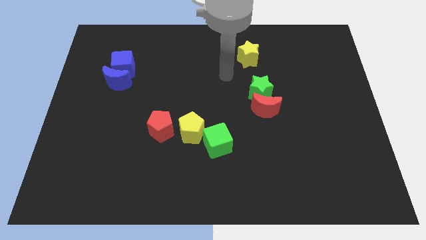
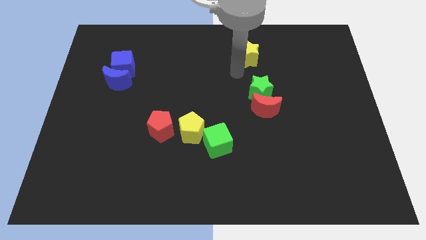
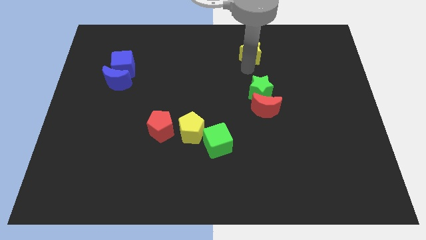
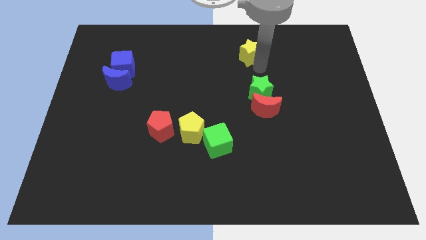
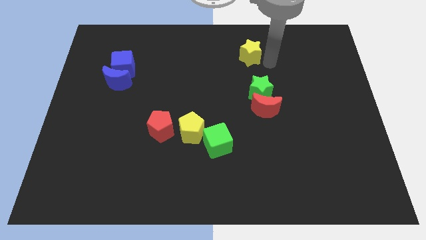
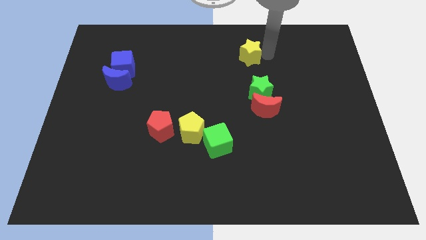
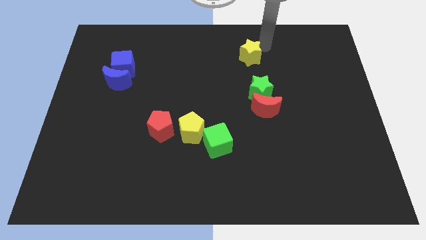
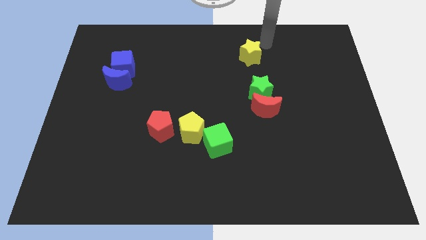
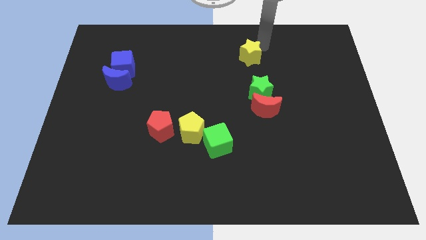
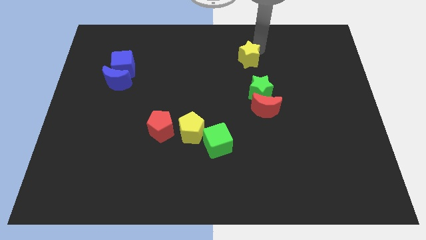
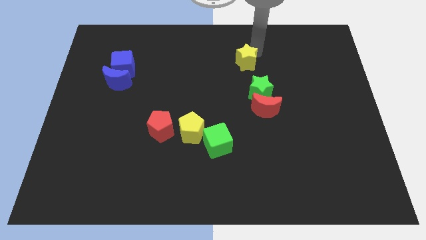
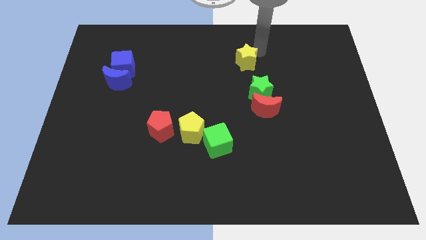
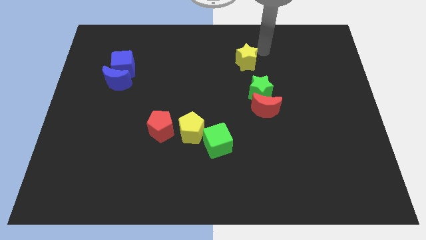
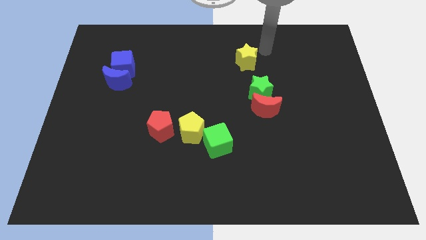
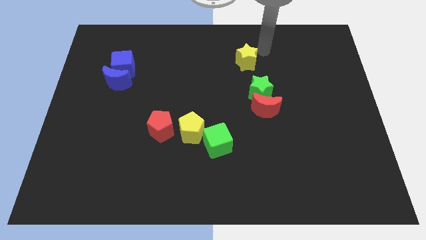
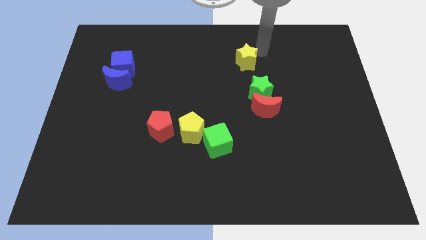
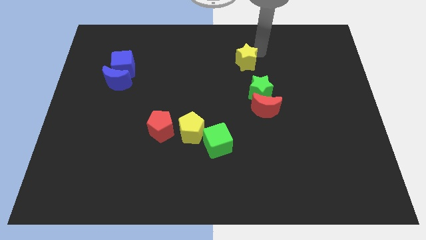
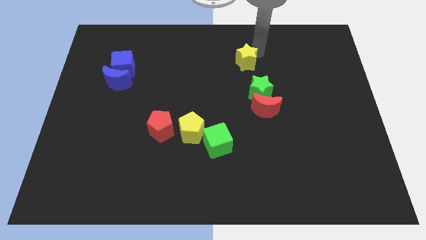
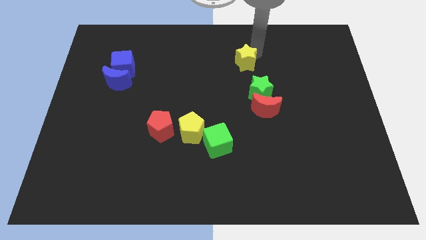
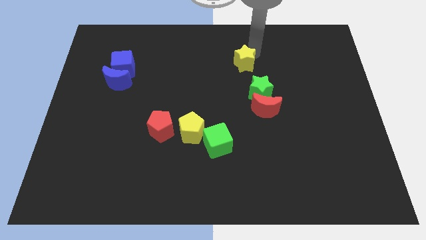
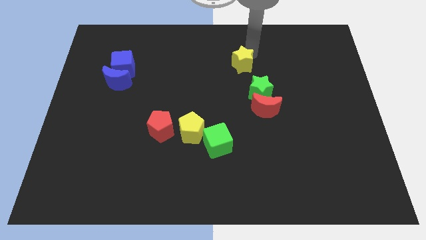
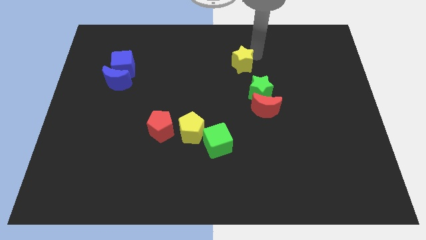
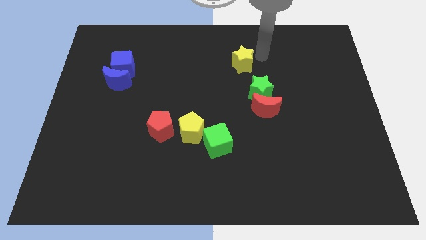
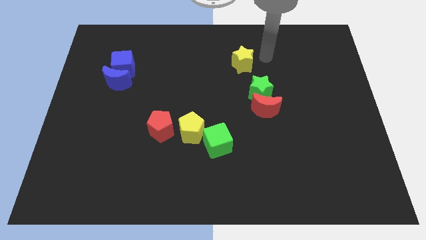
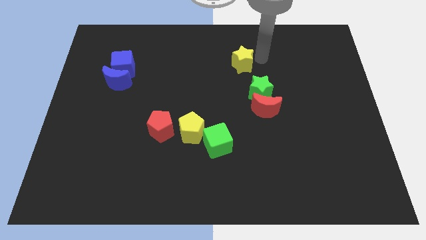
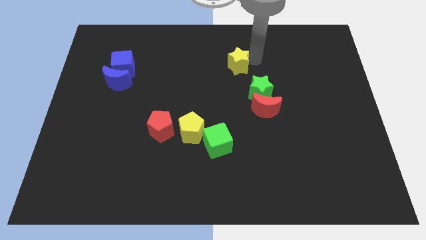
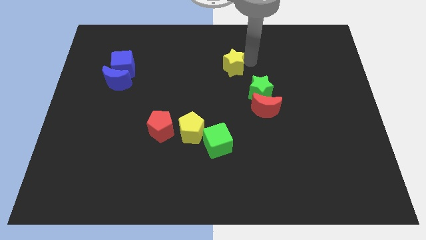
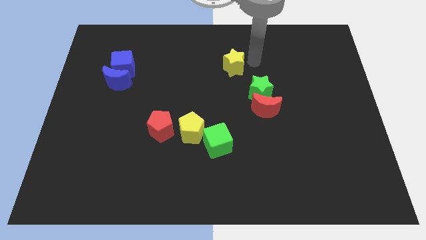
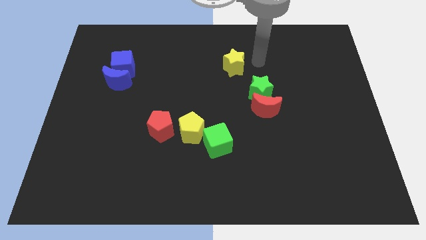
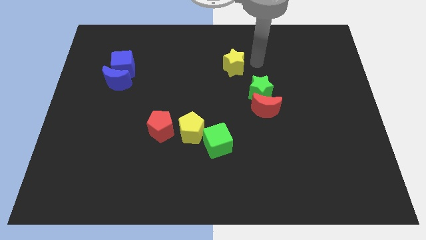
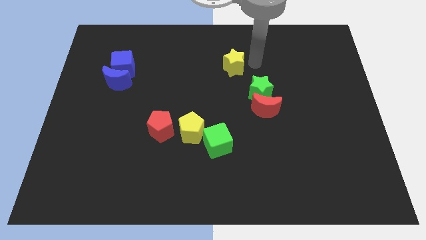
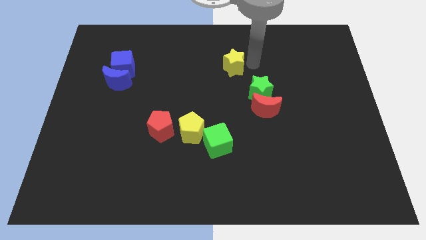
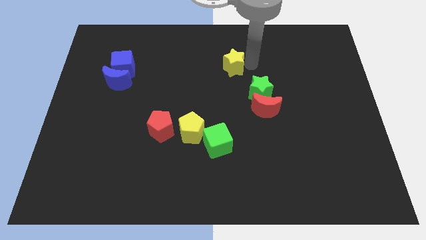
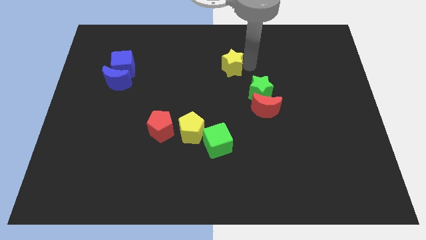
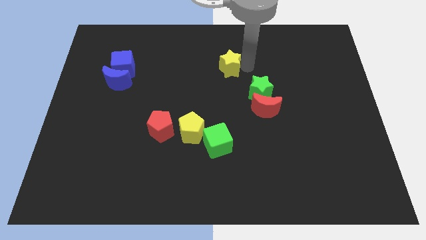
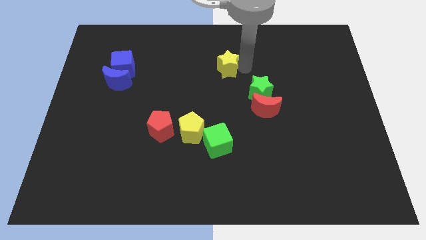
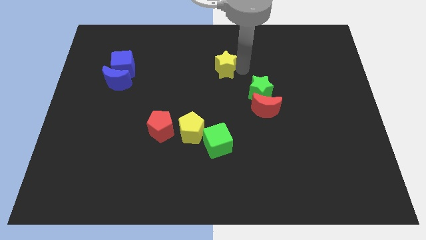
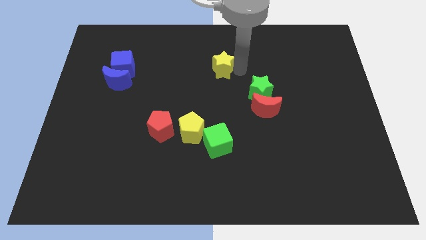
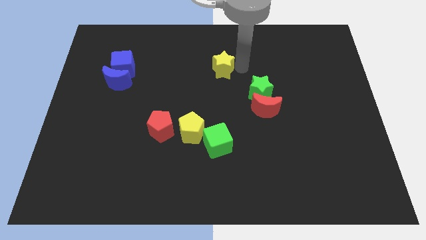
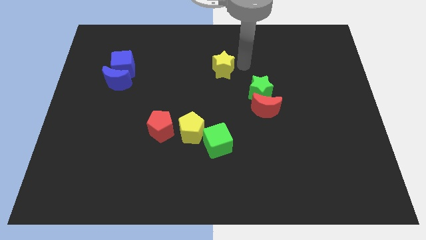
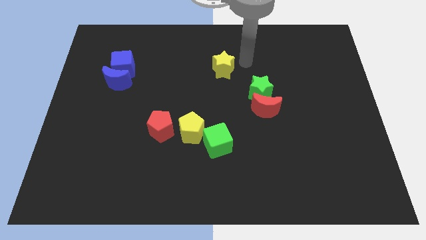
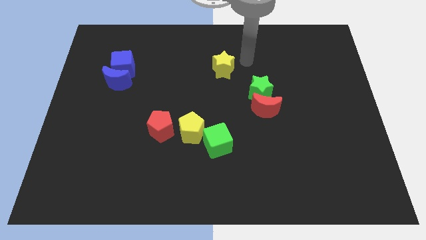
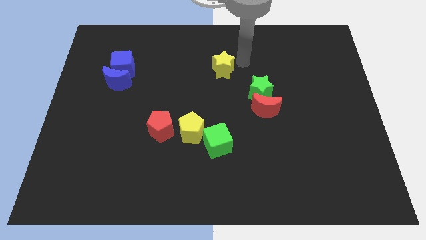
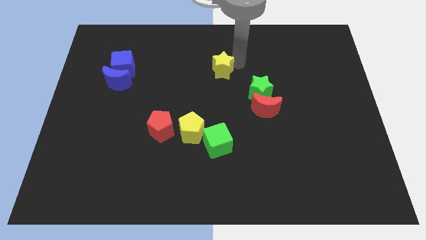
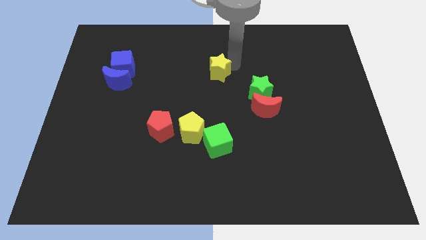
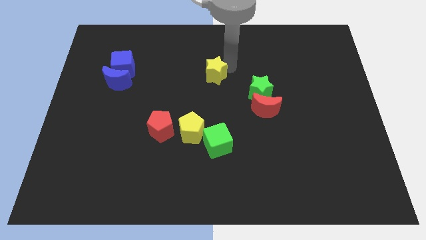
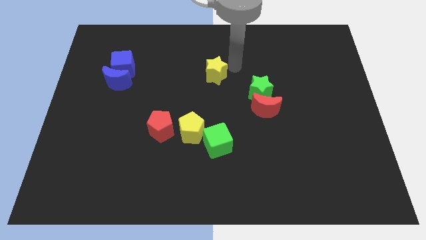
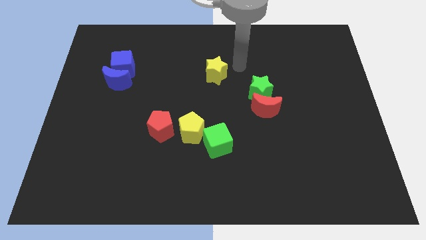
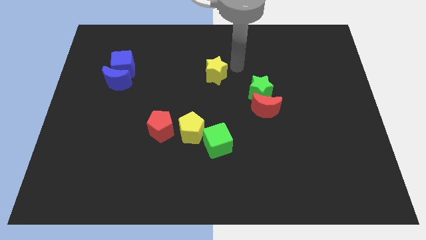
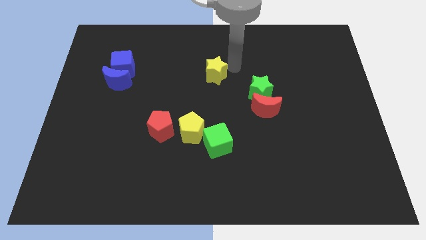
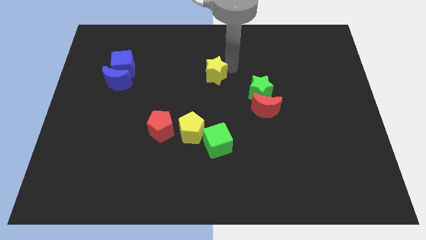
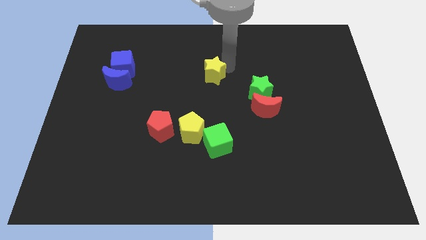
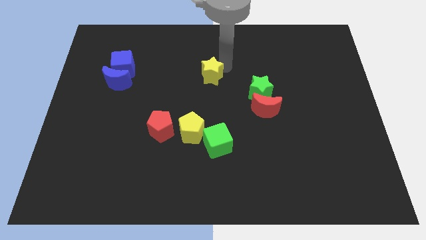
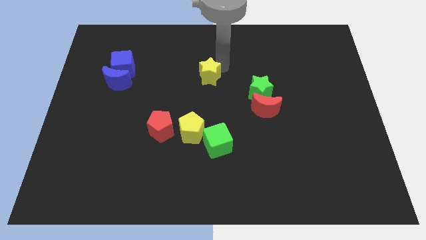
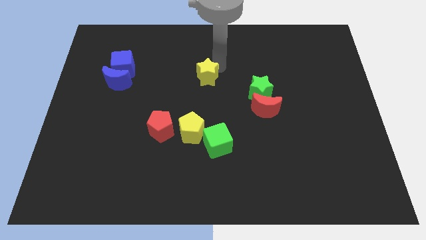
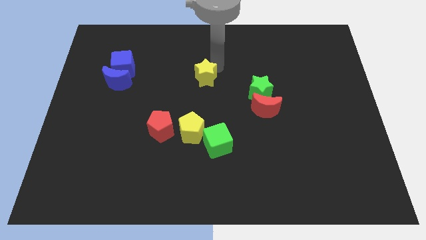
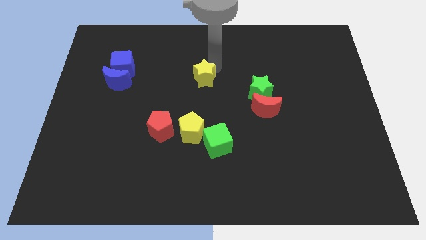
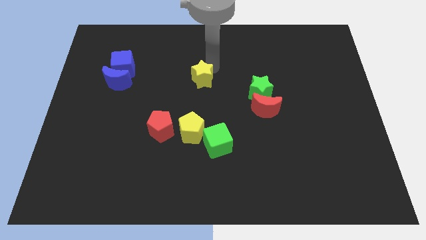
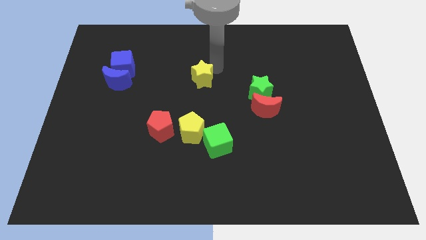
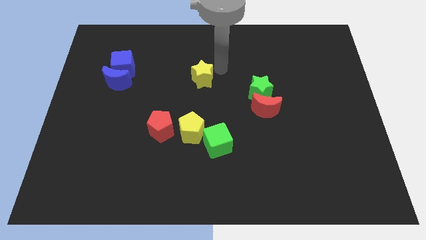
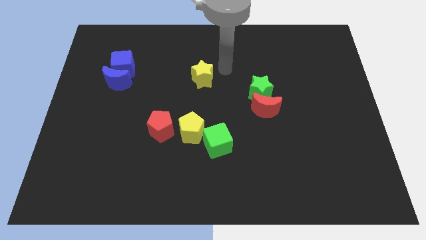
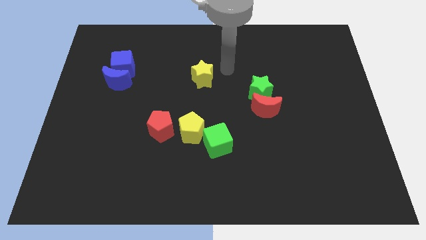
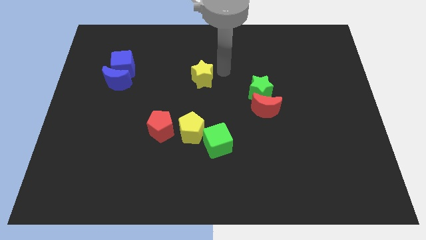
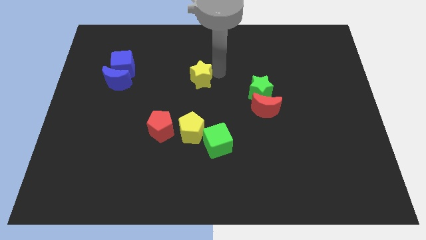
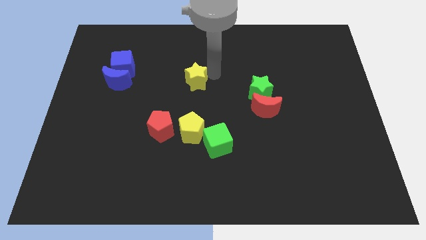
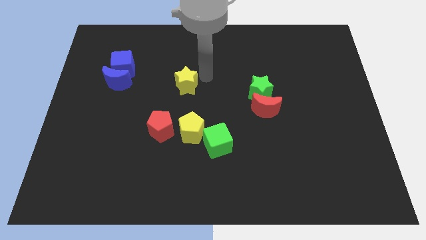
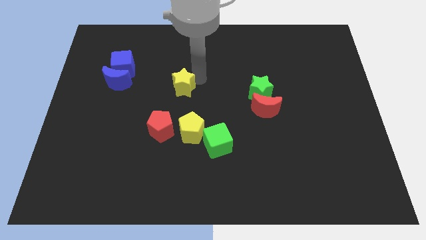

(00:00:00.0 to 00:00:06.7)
push the yellow star above the red pentagon

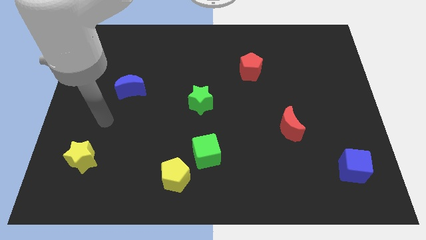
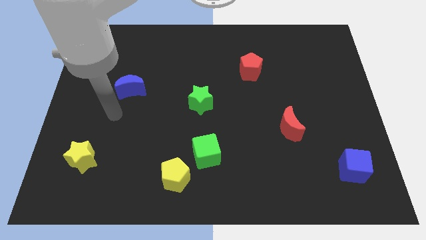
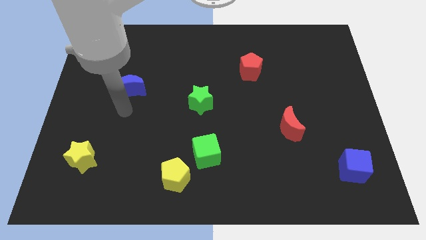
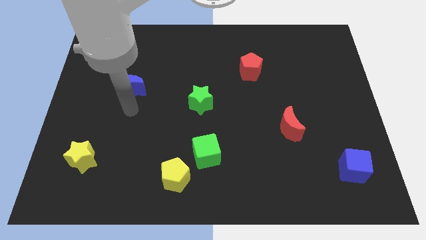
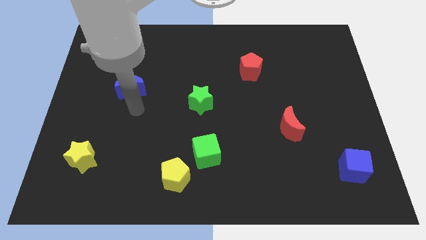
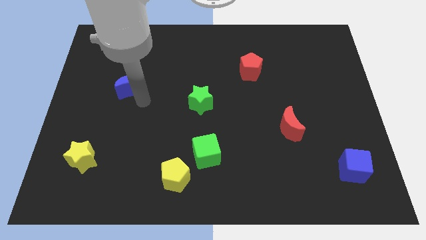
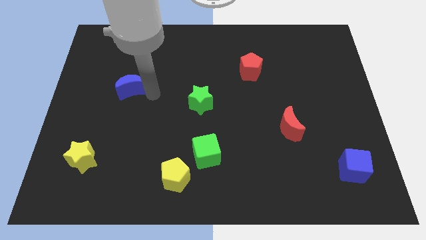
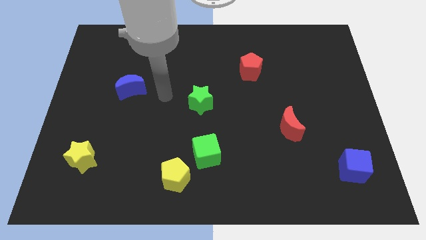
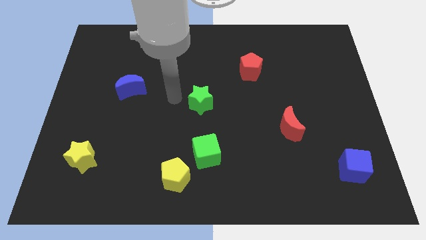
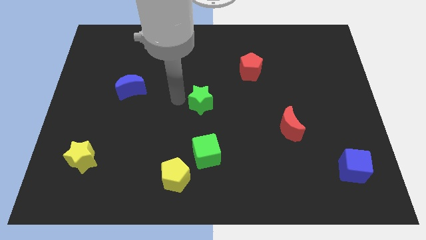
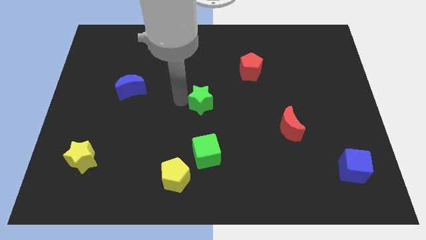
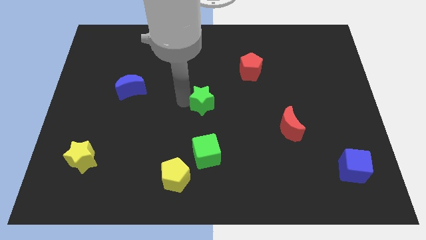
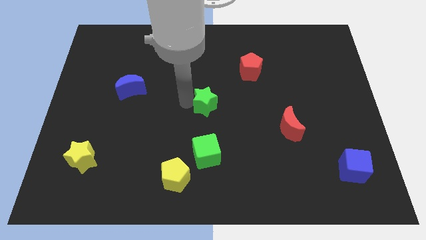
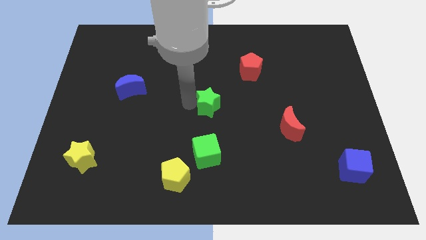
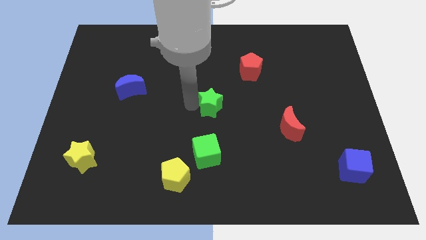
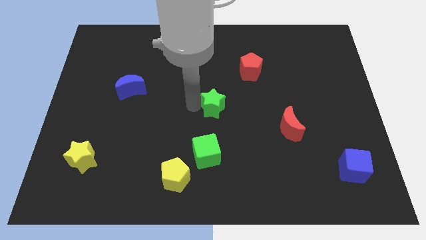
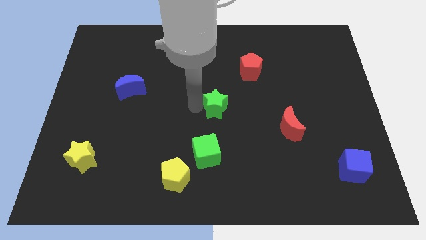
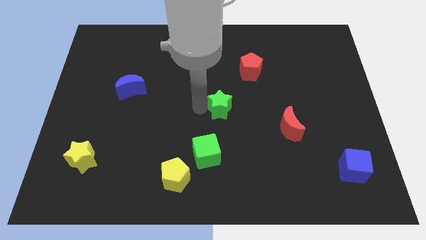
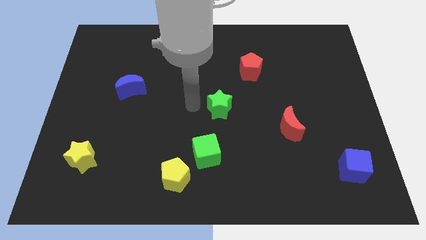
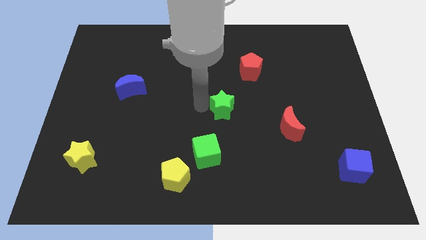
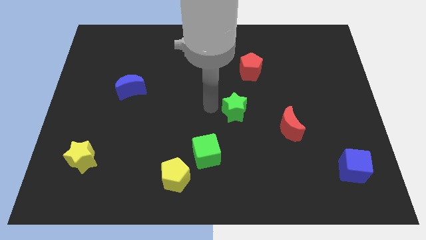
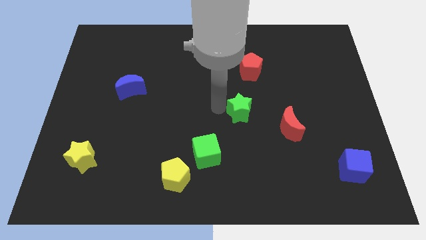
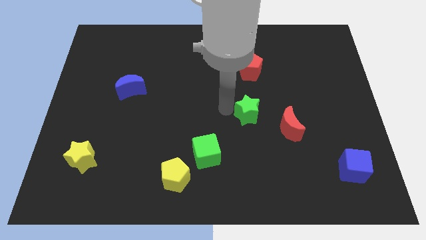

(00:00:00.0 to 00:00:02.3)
push the green star to the top left side of the red moon
